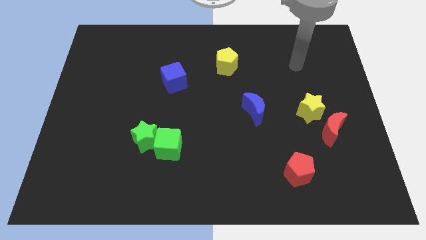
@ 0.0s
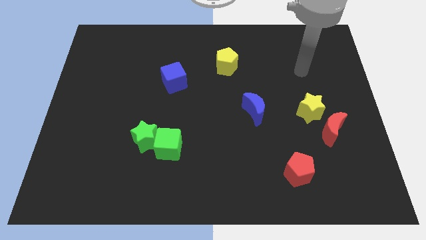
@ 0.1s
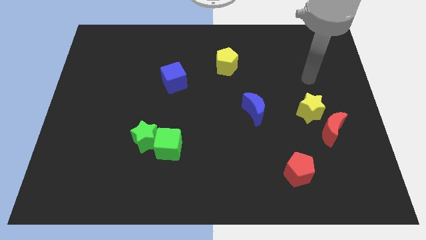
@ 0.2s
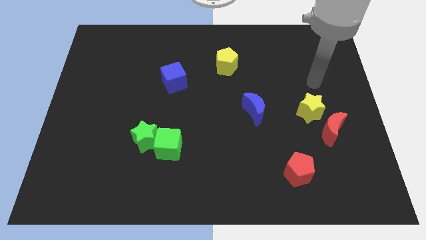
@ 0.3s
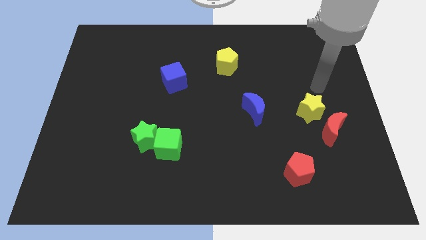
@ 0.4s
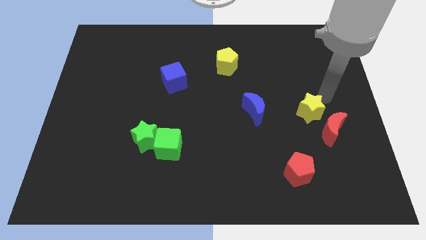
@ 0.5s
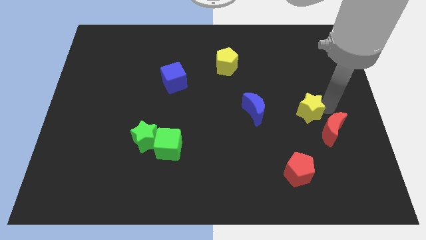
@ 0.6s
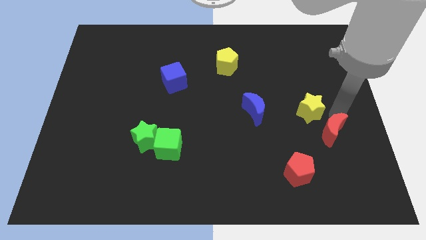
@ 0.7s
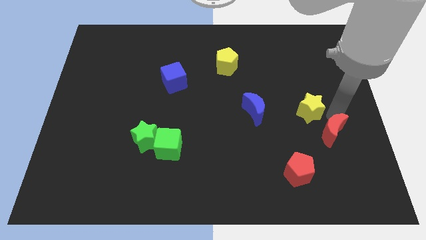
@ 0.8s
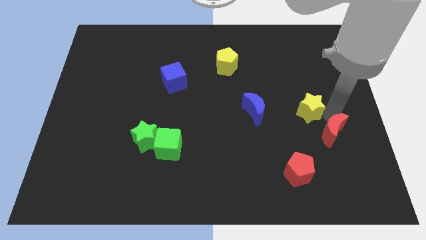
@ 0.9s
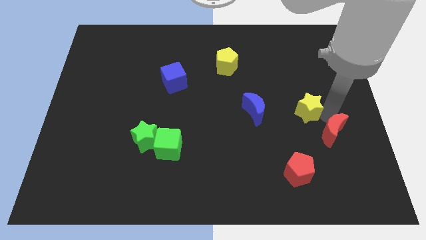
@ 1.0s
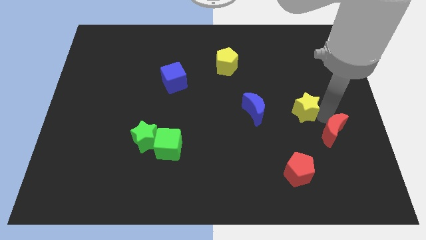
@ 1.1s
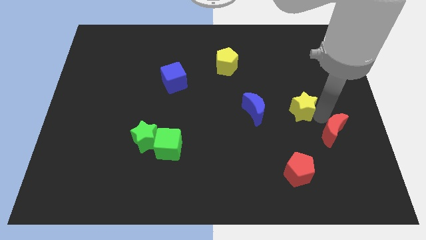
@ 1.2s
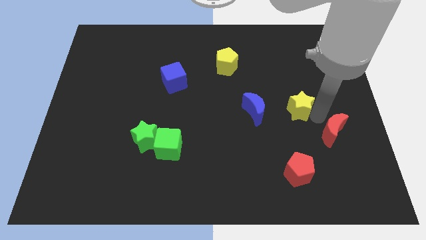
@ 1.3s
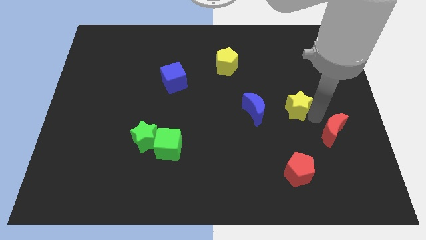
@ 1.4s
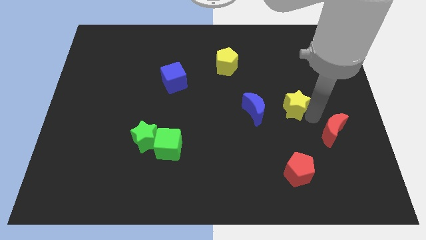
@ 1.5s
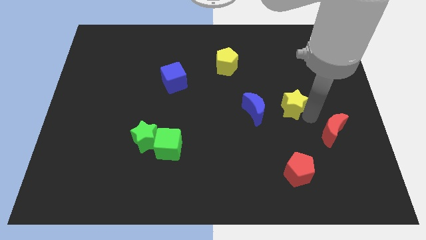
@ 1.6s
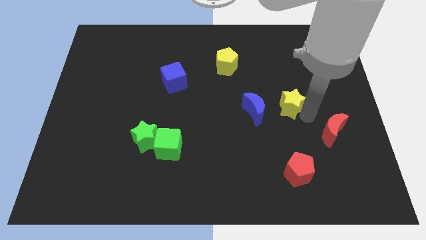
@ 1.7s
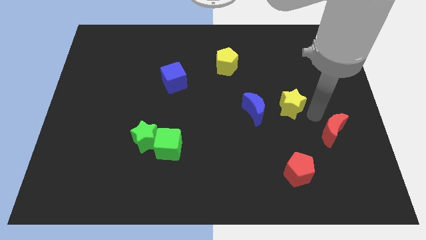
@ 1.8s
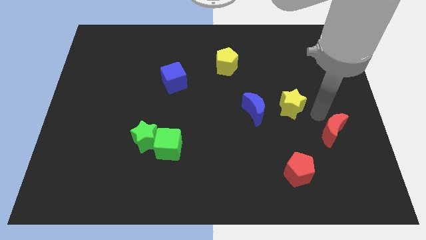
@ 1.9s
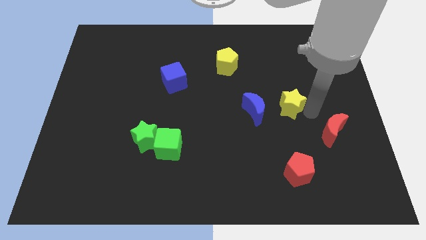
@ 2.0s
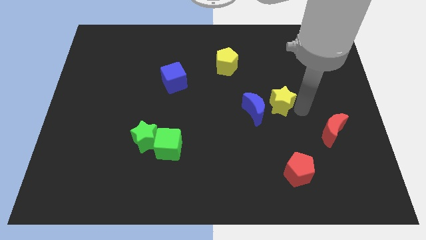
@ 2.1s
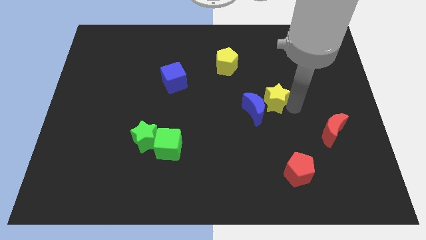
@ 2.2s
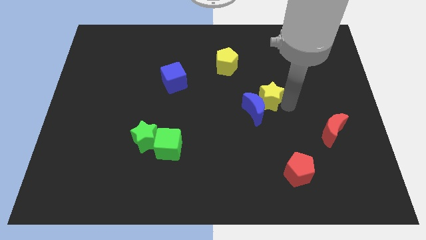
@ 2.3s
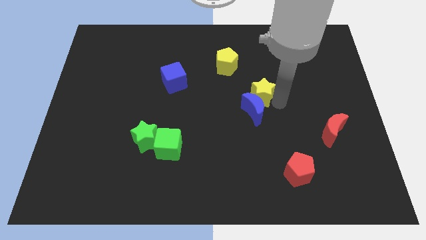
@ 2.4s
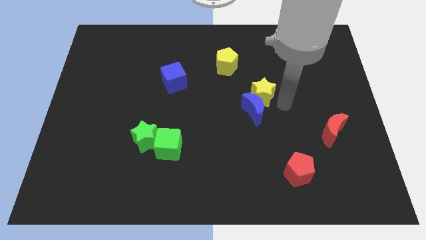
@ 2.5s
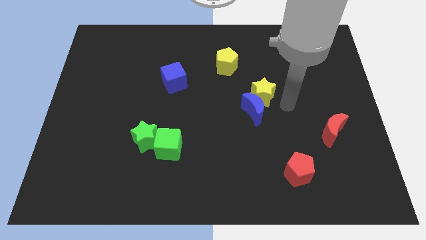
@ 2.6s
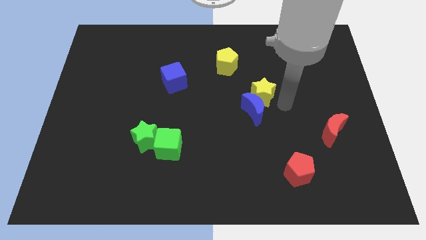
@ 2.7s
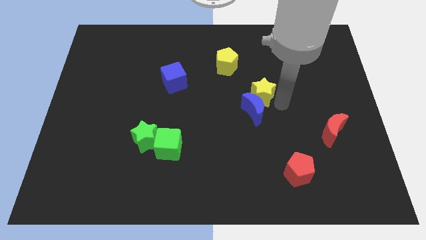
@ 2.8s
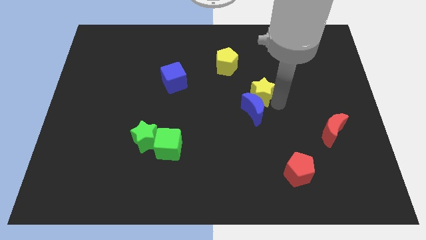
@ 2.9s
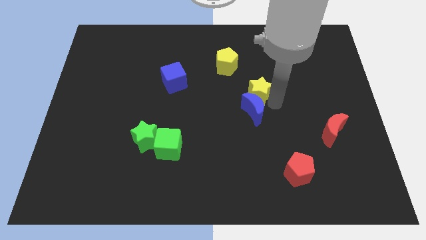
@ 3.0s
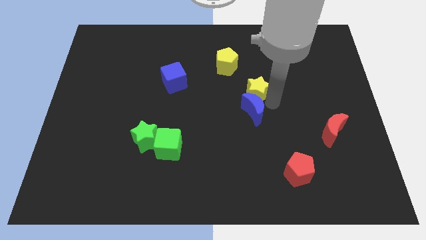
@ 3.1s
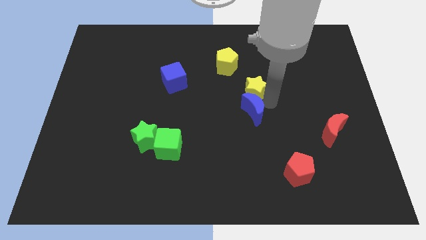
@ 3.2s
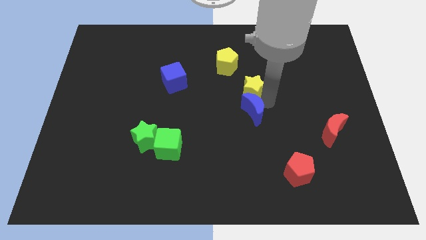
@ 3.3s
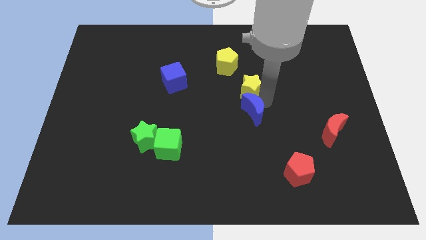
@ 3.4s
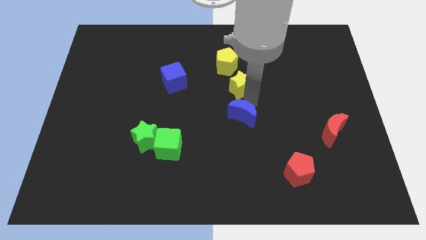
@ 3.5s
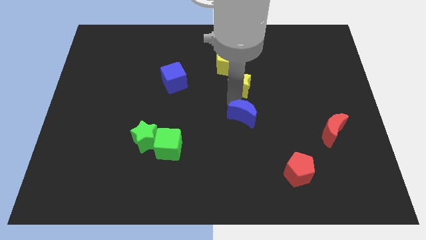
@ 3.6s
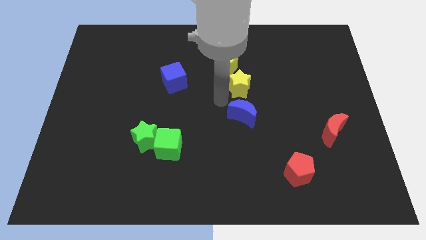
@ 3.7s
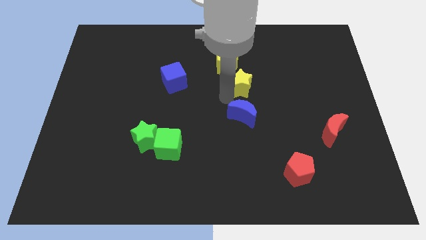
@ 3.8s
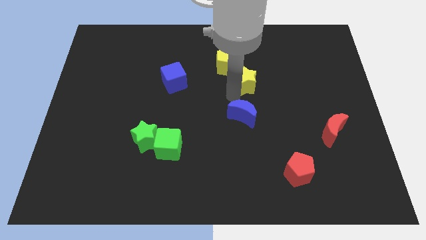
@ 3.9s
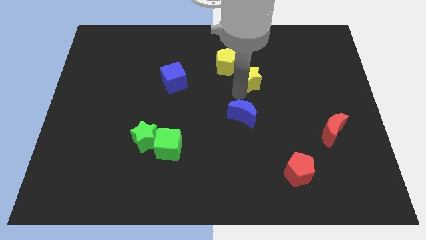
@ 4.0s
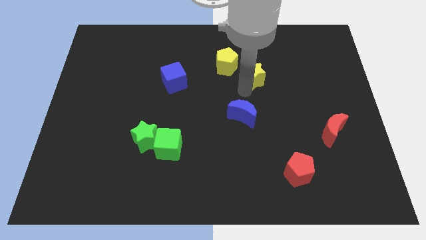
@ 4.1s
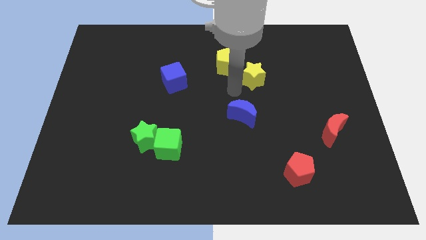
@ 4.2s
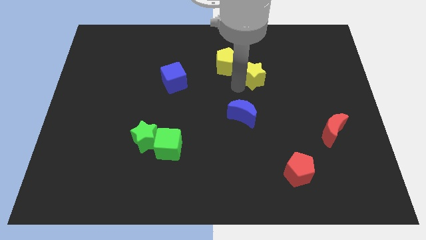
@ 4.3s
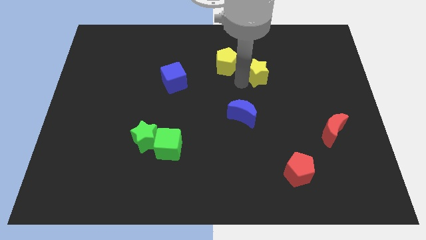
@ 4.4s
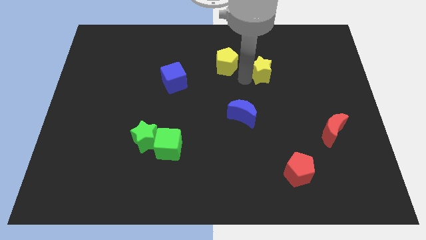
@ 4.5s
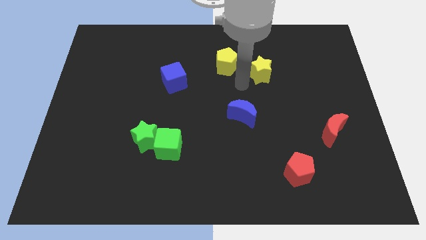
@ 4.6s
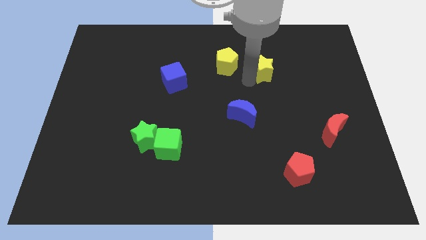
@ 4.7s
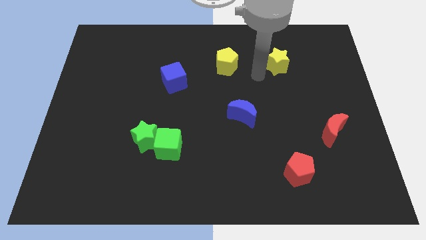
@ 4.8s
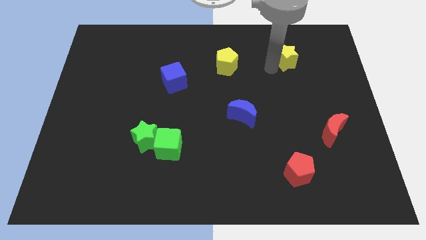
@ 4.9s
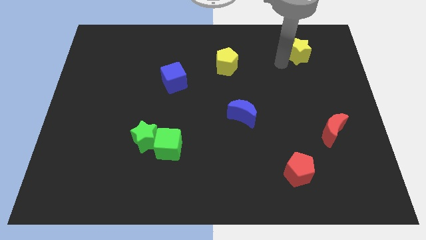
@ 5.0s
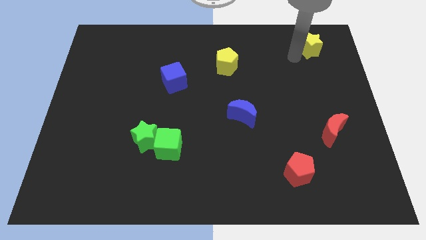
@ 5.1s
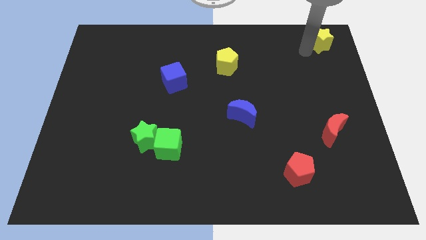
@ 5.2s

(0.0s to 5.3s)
push the yellow star to the top right corner
